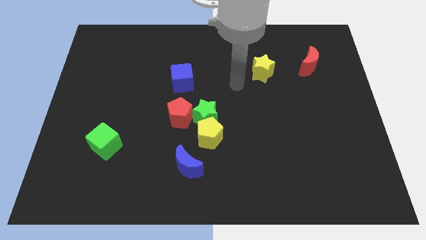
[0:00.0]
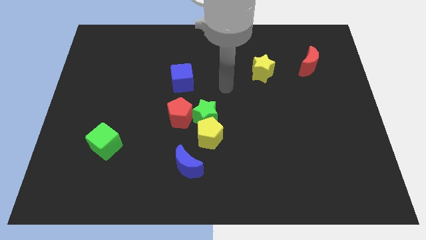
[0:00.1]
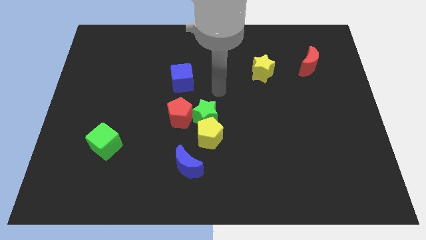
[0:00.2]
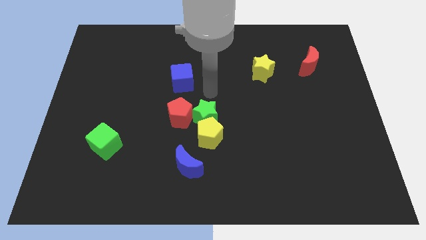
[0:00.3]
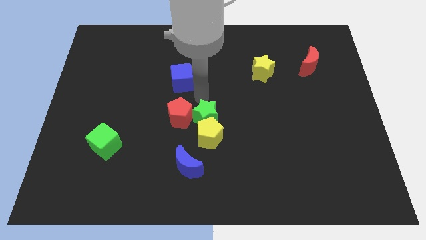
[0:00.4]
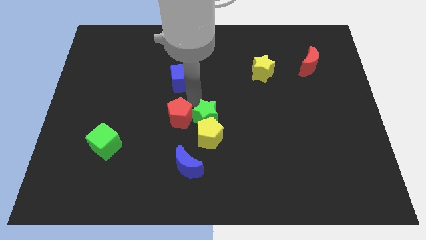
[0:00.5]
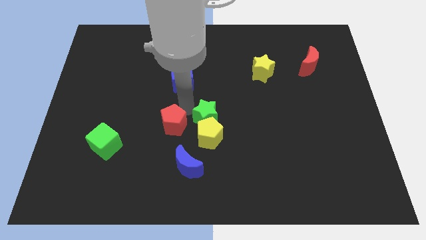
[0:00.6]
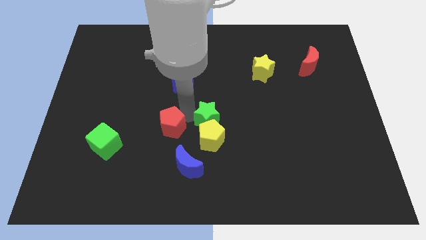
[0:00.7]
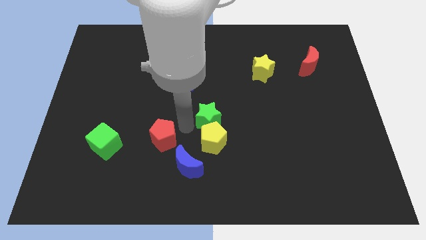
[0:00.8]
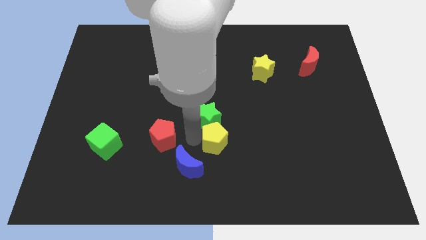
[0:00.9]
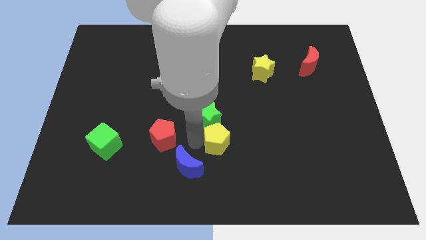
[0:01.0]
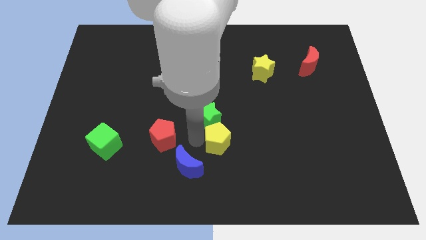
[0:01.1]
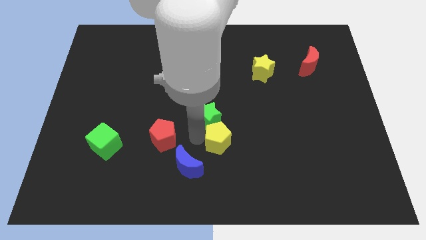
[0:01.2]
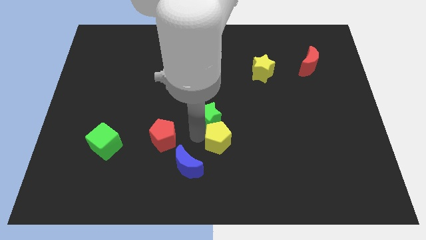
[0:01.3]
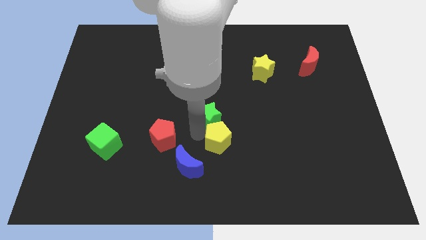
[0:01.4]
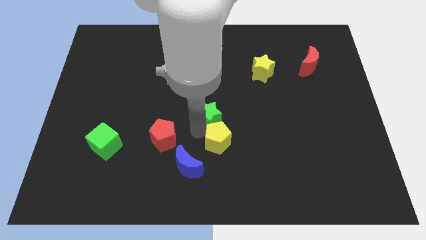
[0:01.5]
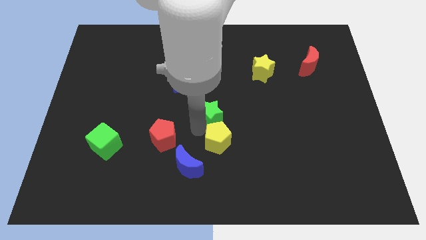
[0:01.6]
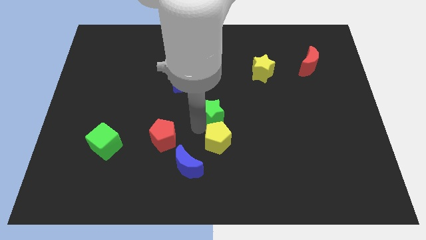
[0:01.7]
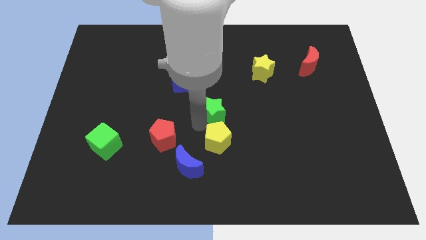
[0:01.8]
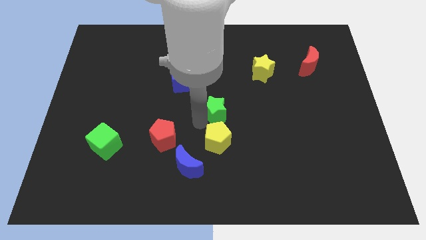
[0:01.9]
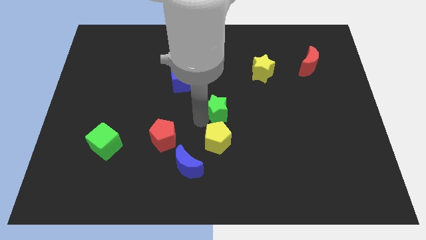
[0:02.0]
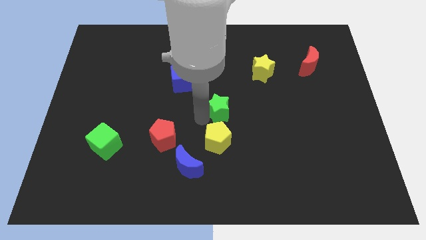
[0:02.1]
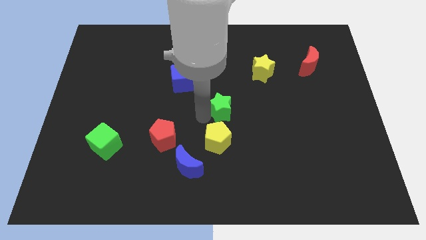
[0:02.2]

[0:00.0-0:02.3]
move the green star away from the yellow pentagon and red pentagon

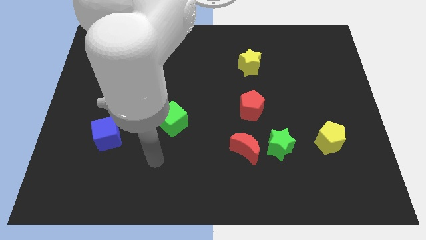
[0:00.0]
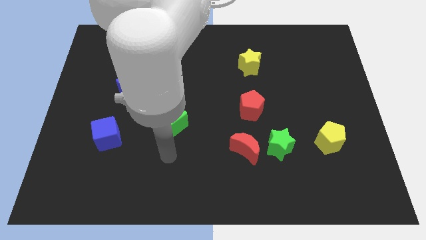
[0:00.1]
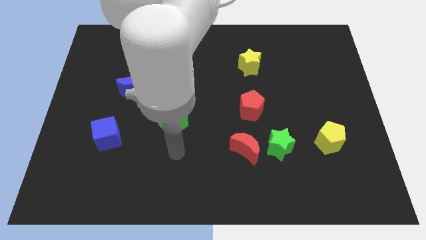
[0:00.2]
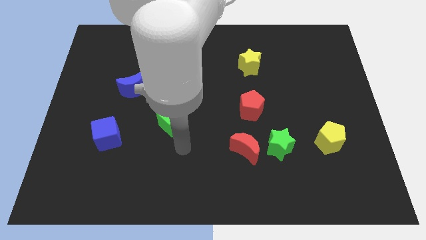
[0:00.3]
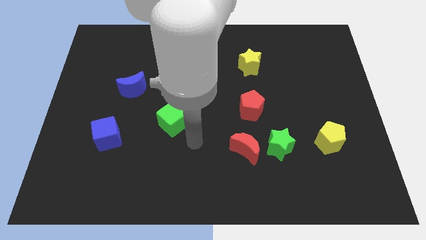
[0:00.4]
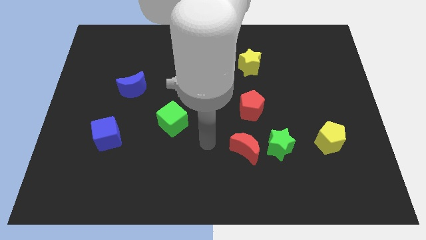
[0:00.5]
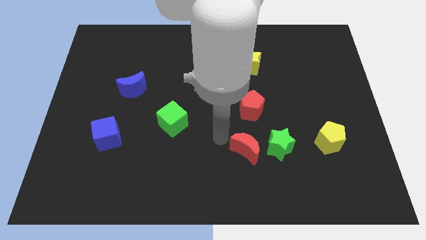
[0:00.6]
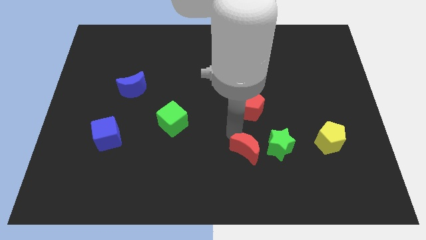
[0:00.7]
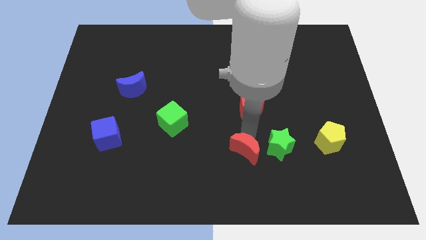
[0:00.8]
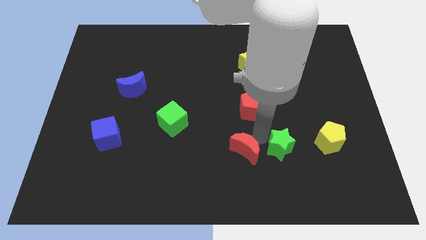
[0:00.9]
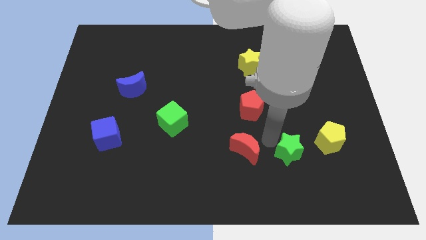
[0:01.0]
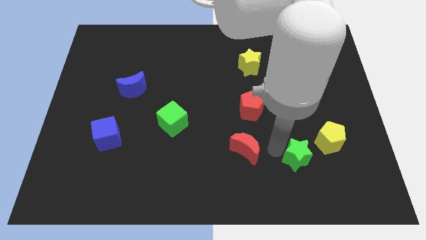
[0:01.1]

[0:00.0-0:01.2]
move the red moon away from the green star

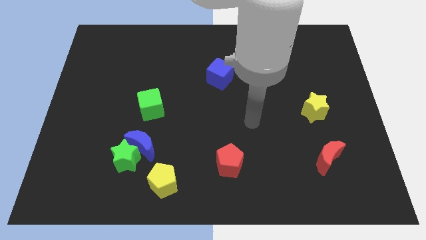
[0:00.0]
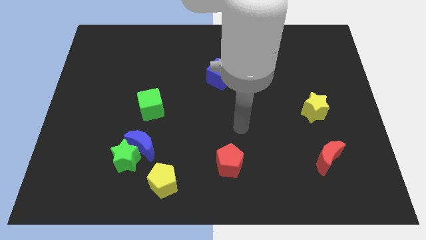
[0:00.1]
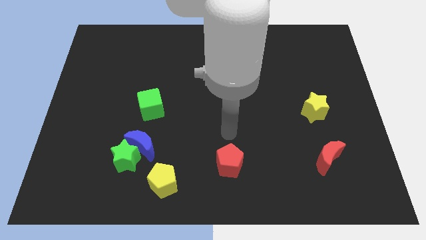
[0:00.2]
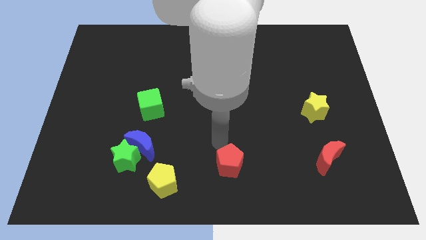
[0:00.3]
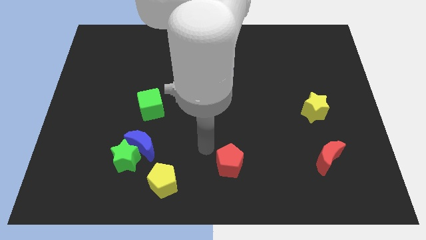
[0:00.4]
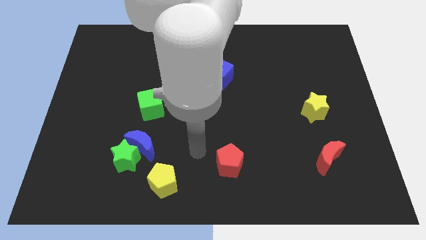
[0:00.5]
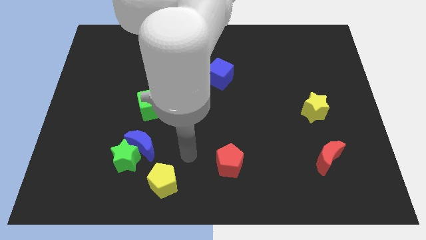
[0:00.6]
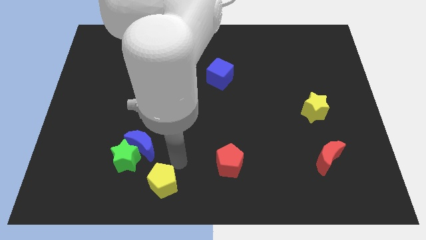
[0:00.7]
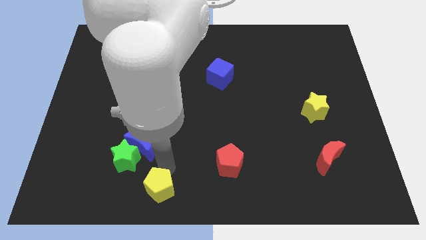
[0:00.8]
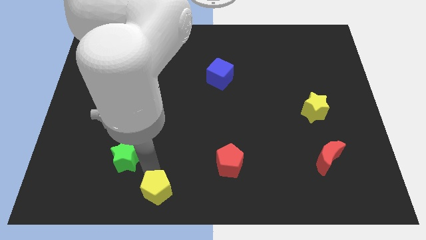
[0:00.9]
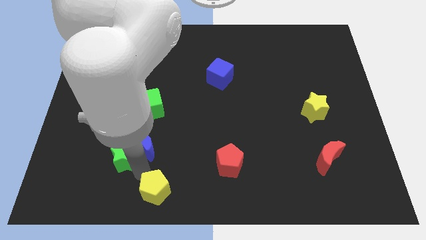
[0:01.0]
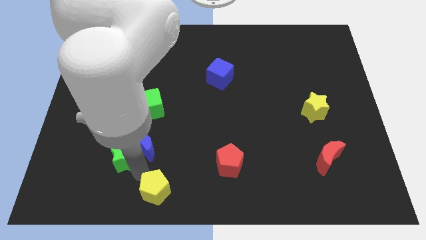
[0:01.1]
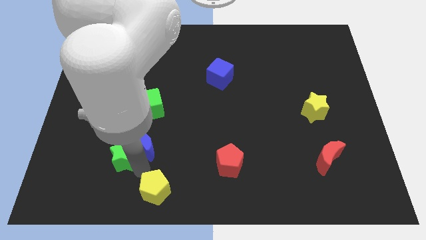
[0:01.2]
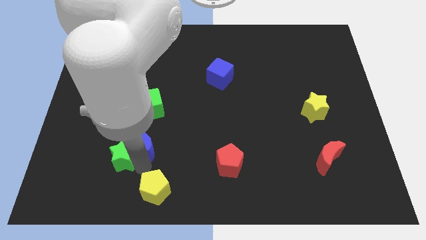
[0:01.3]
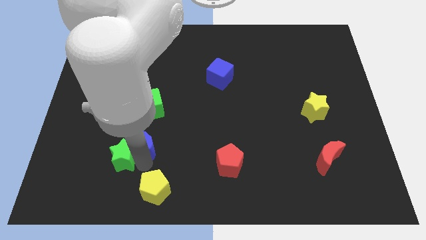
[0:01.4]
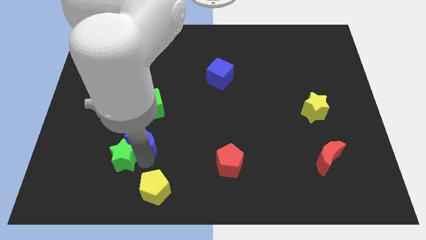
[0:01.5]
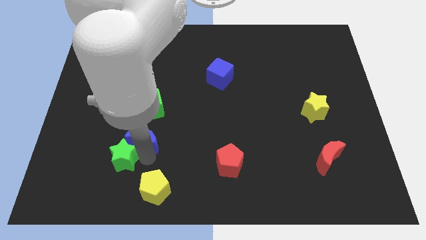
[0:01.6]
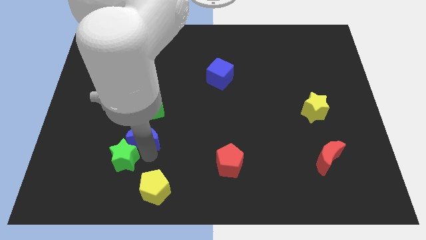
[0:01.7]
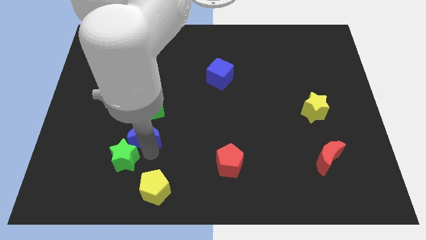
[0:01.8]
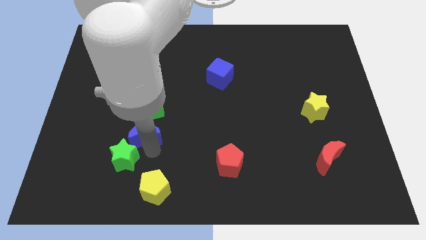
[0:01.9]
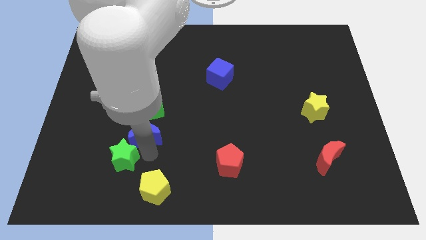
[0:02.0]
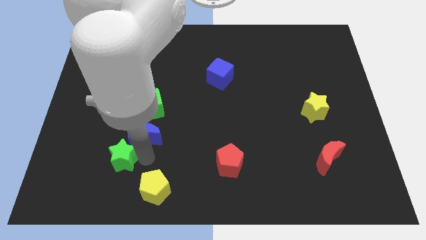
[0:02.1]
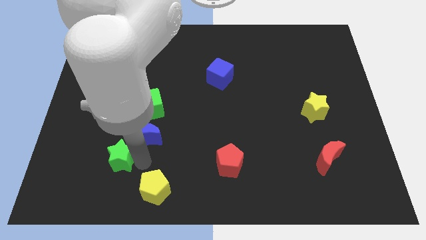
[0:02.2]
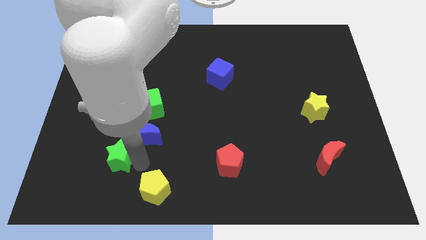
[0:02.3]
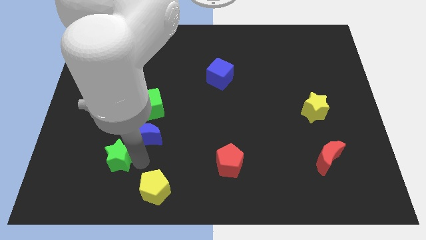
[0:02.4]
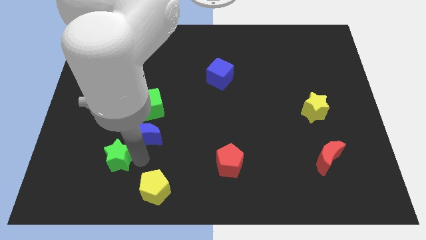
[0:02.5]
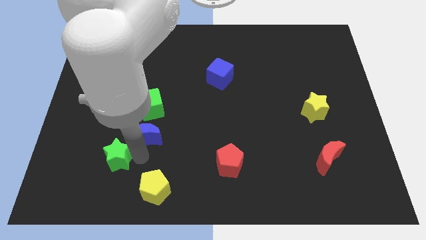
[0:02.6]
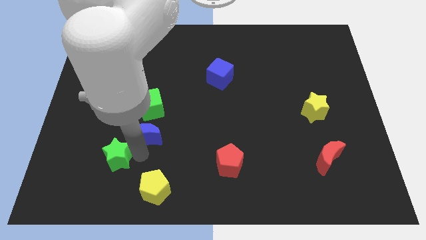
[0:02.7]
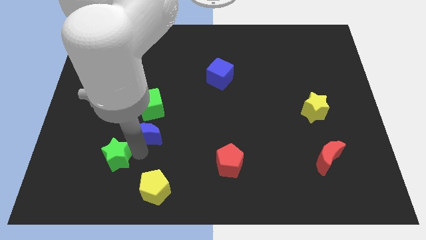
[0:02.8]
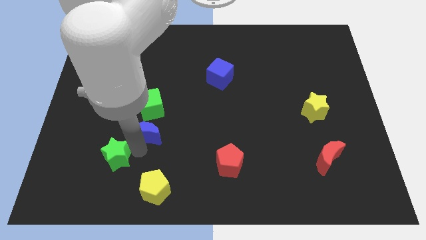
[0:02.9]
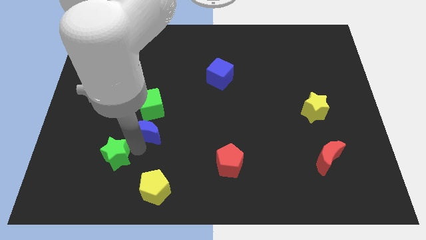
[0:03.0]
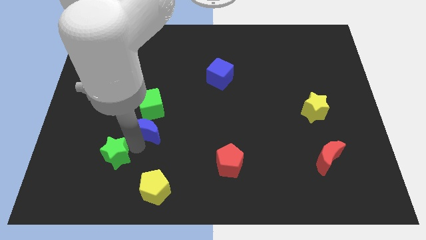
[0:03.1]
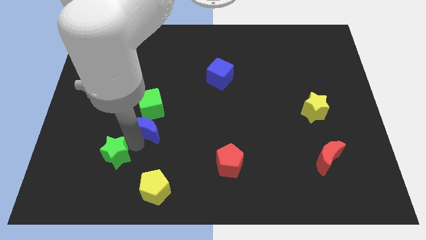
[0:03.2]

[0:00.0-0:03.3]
move the blue moon away from the green star and yellow pentagon

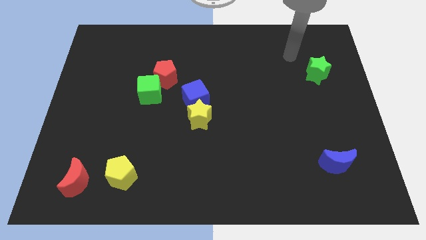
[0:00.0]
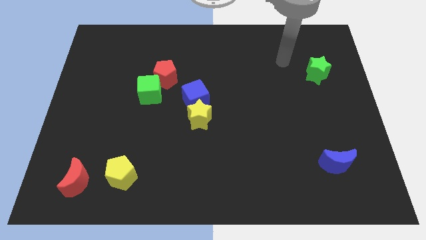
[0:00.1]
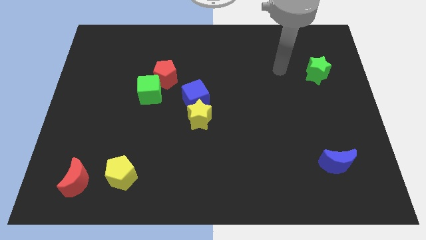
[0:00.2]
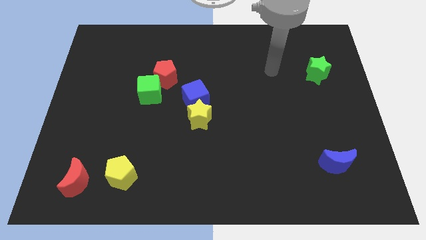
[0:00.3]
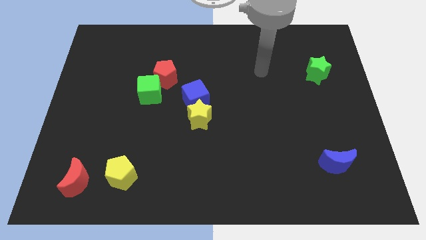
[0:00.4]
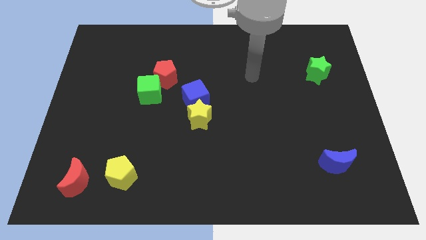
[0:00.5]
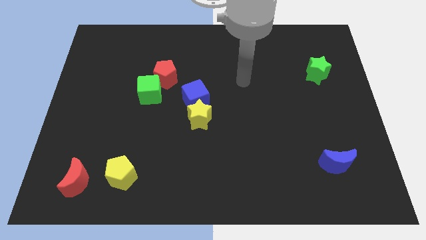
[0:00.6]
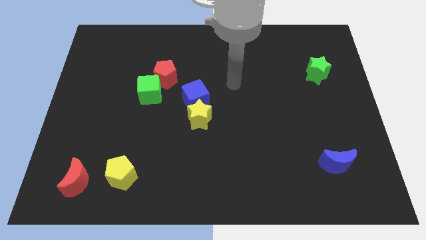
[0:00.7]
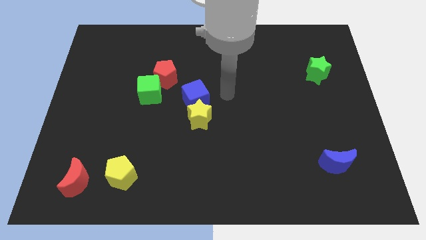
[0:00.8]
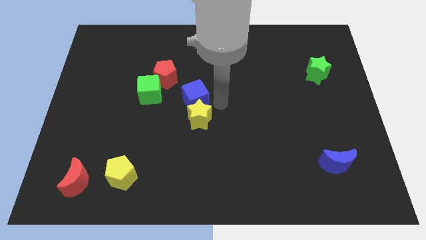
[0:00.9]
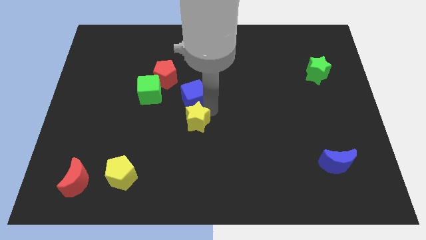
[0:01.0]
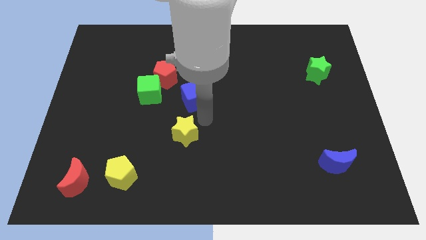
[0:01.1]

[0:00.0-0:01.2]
move the blue cube away from the yellow star

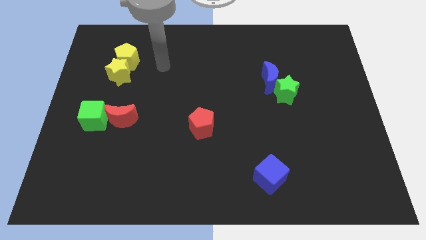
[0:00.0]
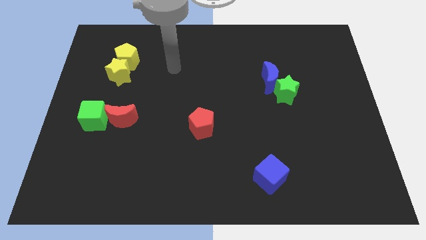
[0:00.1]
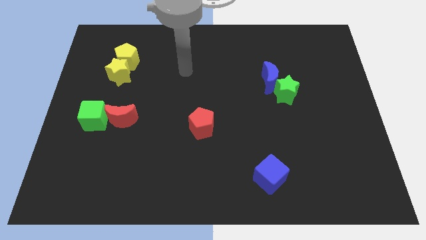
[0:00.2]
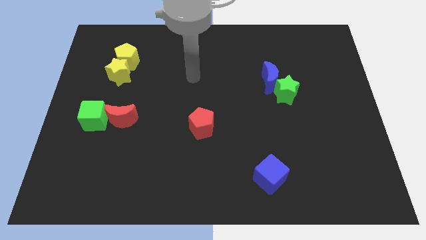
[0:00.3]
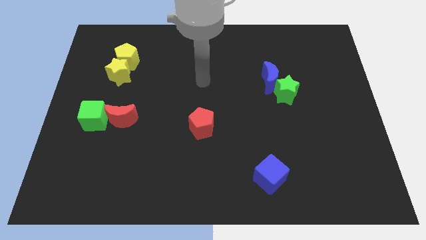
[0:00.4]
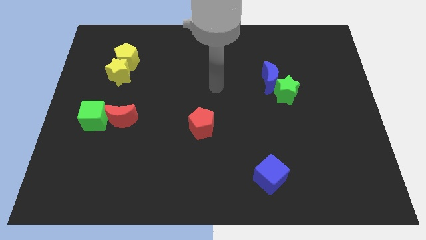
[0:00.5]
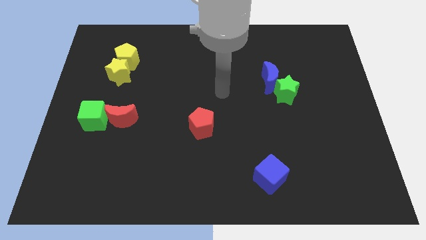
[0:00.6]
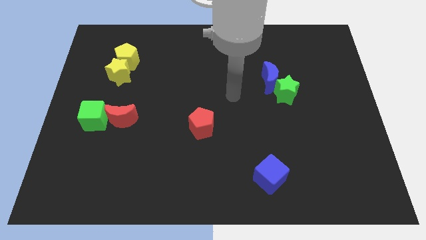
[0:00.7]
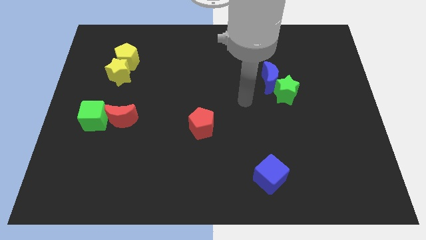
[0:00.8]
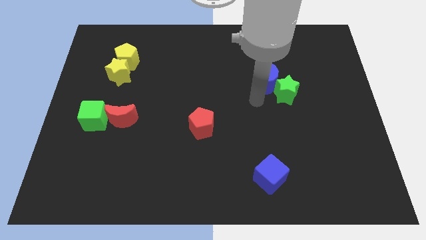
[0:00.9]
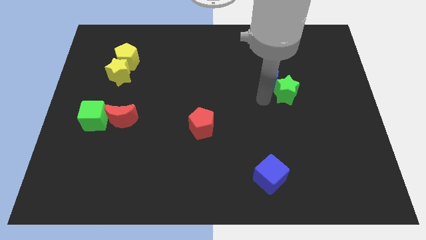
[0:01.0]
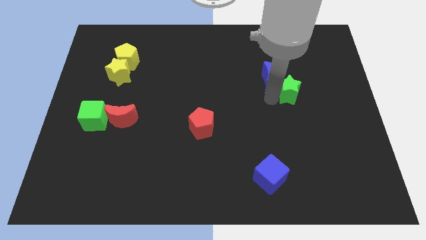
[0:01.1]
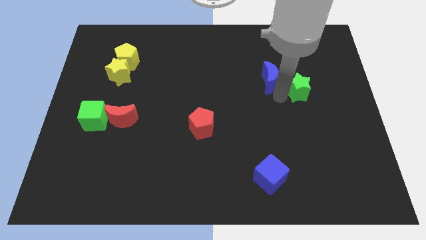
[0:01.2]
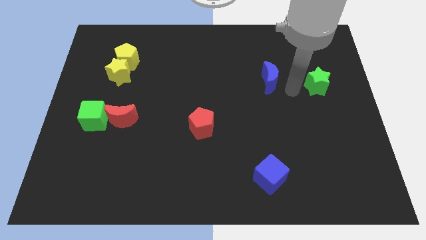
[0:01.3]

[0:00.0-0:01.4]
separate the blue moon from the green star
